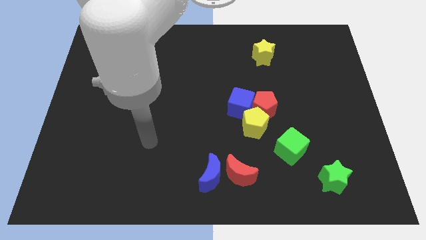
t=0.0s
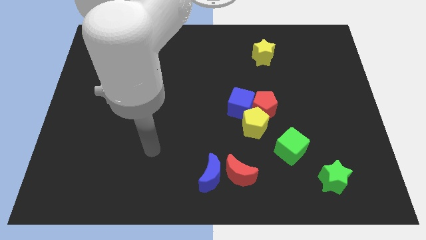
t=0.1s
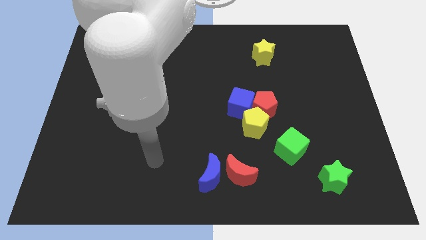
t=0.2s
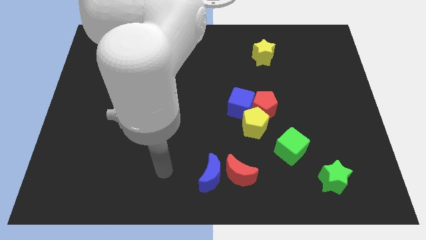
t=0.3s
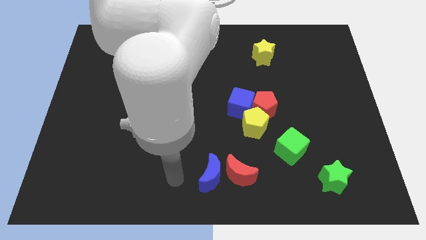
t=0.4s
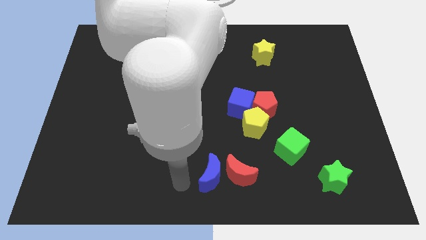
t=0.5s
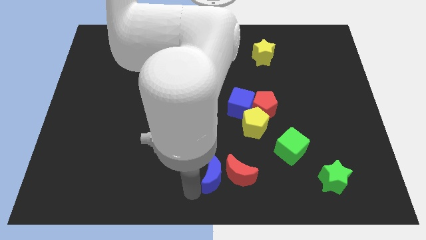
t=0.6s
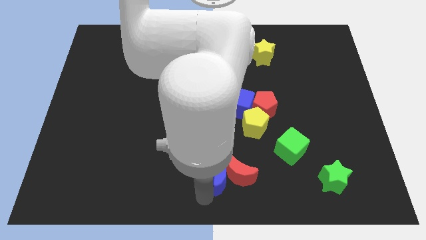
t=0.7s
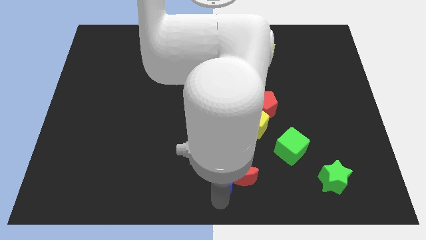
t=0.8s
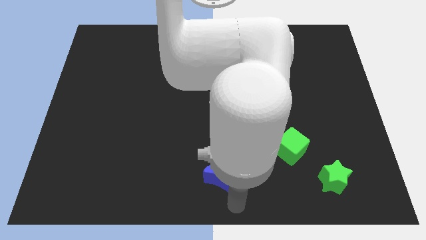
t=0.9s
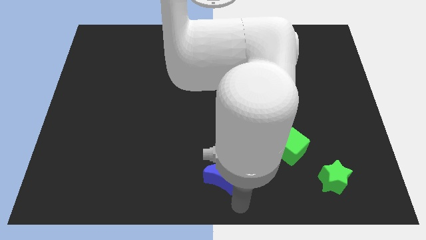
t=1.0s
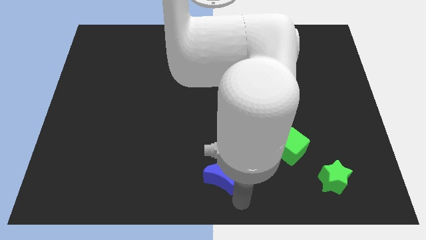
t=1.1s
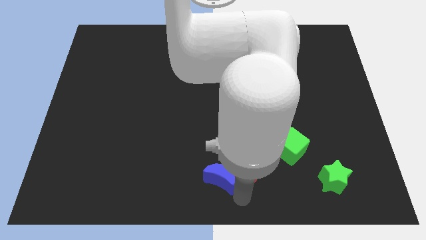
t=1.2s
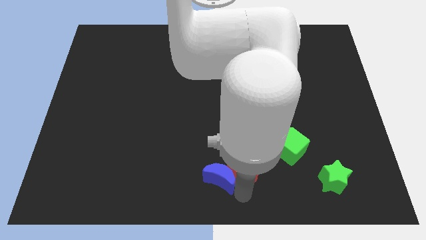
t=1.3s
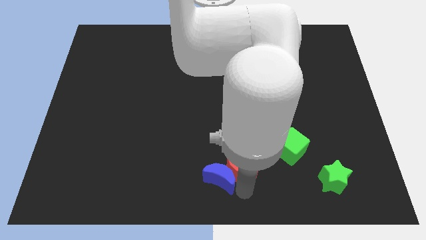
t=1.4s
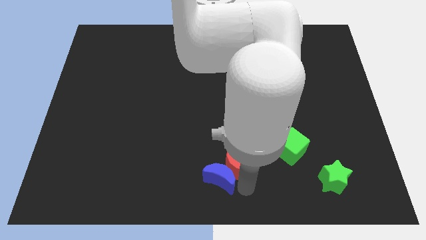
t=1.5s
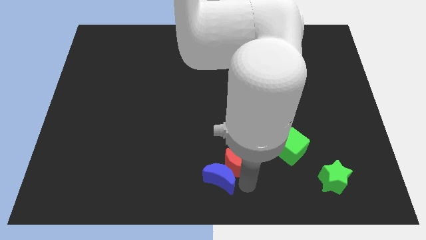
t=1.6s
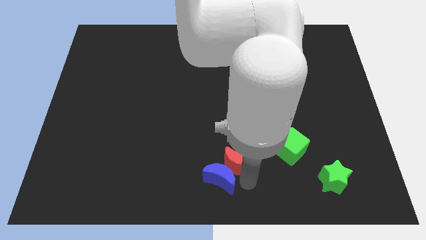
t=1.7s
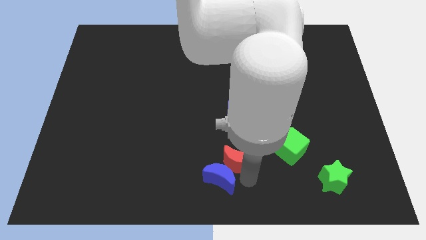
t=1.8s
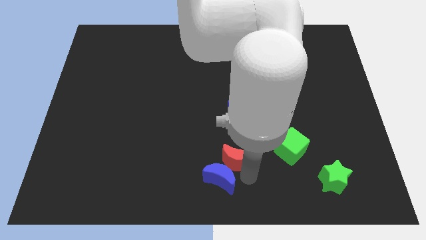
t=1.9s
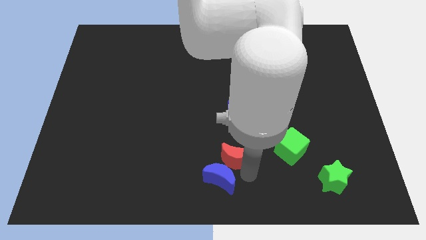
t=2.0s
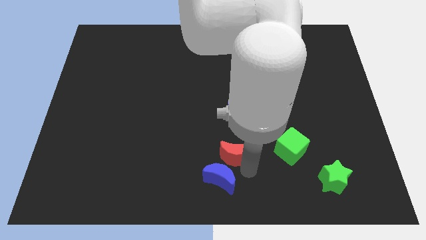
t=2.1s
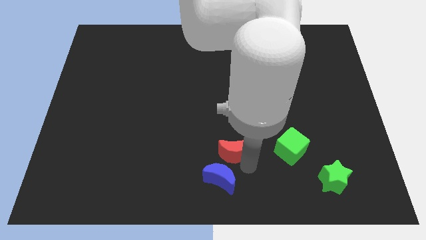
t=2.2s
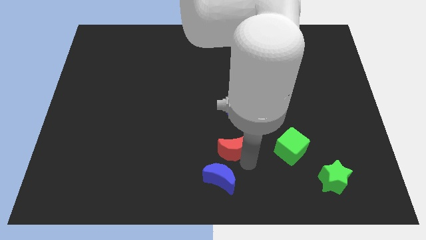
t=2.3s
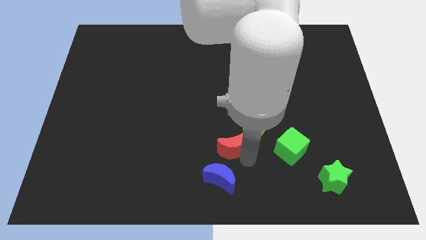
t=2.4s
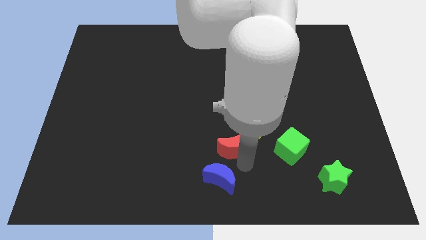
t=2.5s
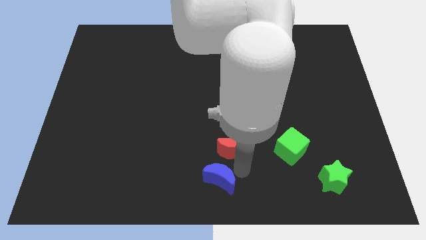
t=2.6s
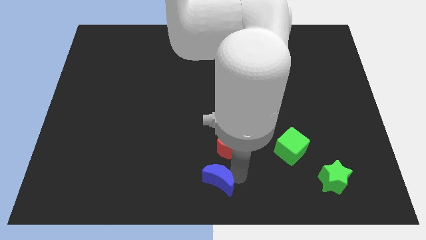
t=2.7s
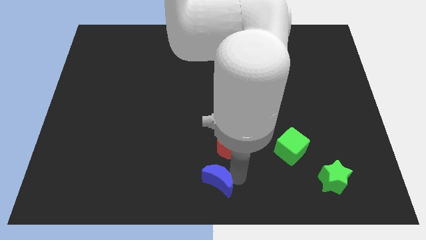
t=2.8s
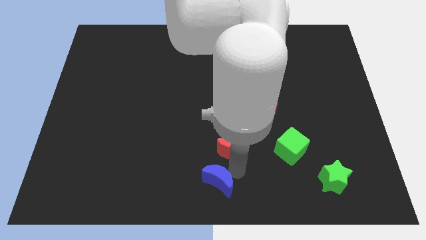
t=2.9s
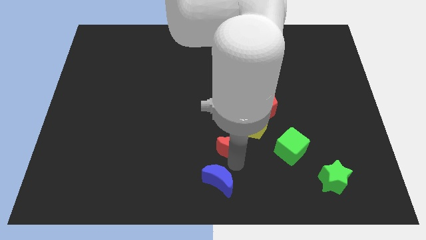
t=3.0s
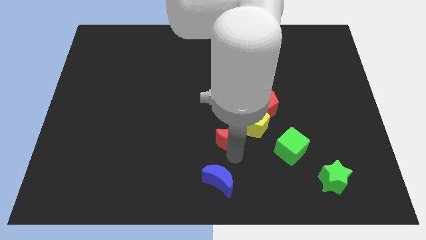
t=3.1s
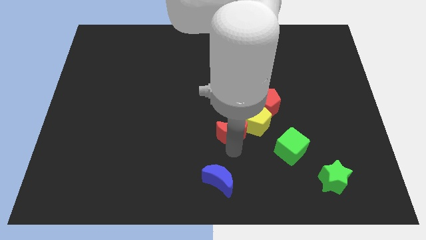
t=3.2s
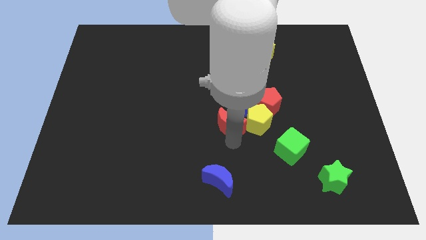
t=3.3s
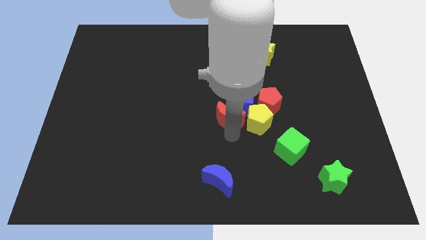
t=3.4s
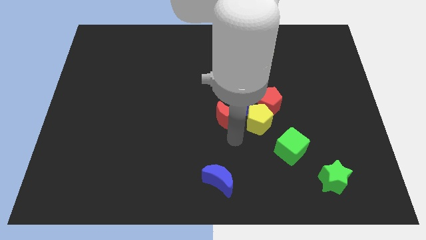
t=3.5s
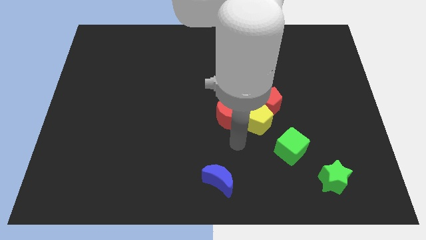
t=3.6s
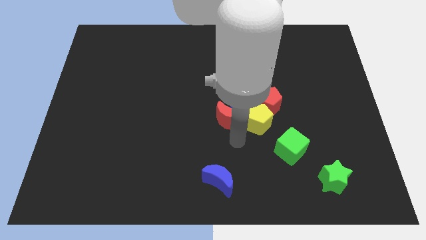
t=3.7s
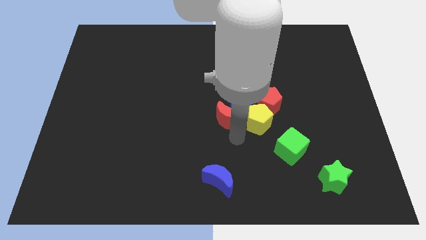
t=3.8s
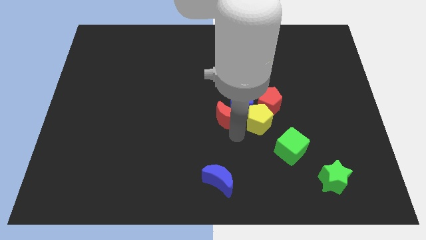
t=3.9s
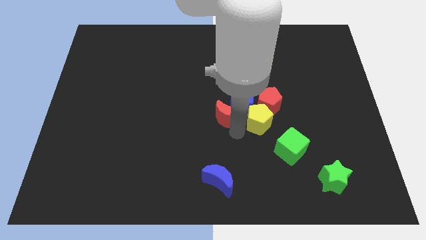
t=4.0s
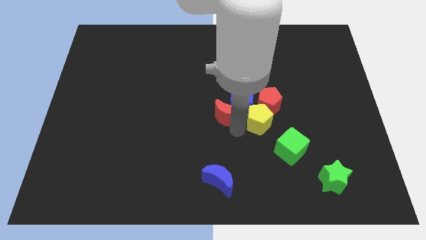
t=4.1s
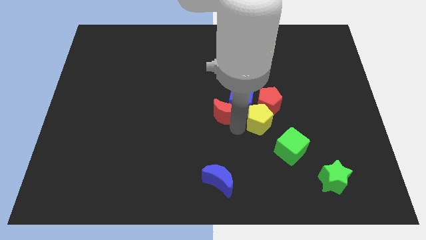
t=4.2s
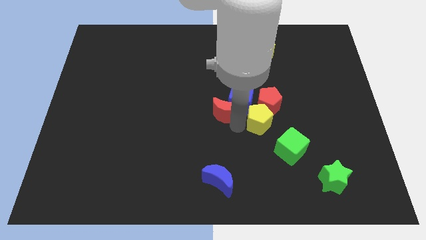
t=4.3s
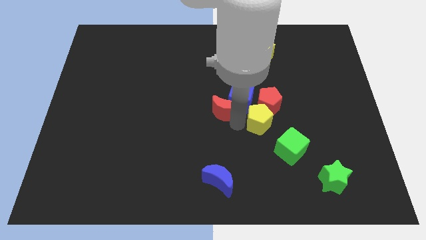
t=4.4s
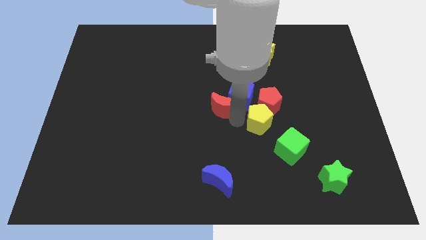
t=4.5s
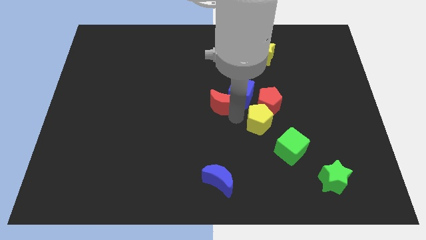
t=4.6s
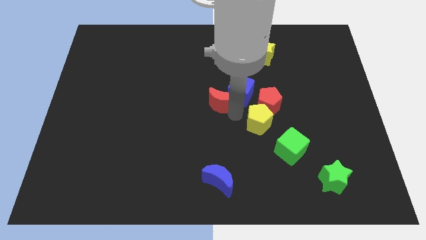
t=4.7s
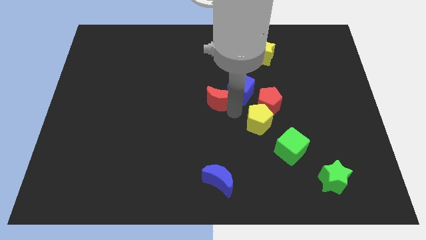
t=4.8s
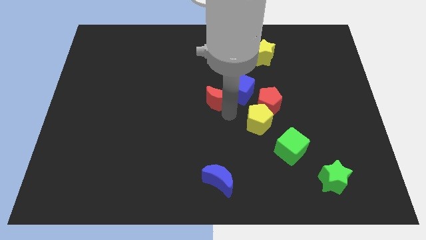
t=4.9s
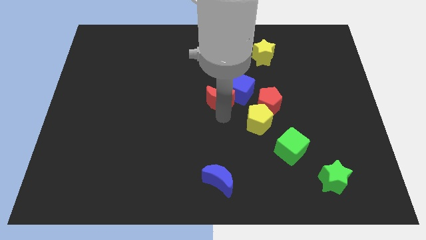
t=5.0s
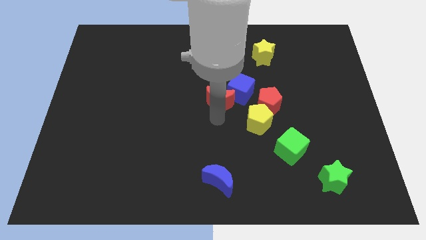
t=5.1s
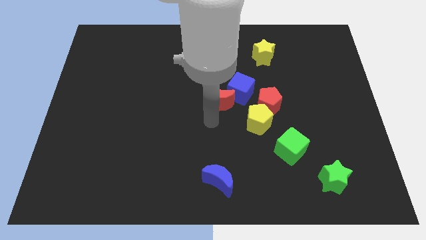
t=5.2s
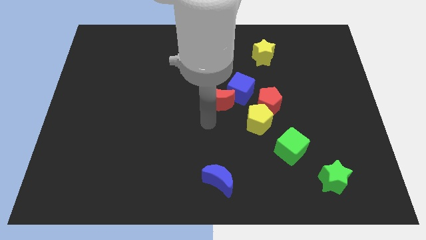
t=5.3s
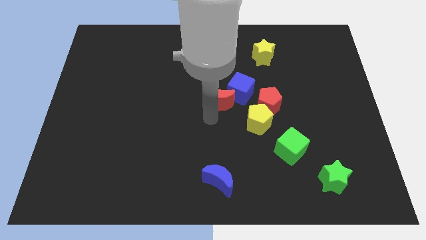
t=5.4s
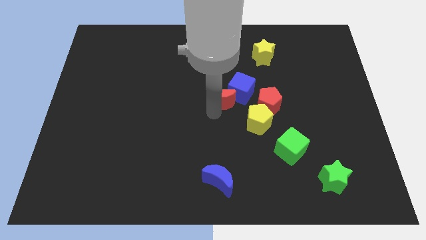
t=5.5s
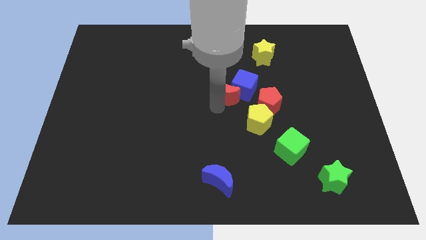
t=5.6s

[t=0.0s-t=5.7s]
push the red moon upwards

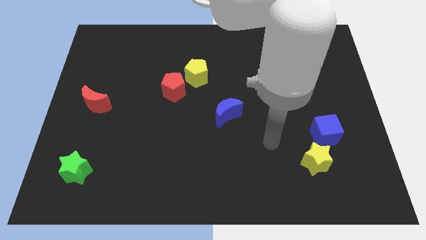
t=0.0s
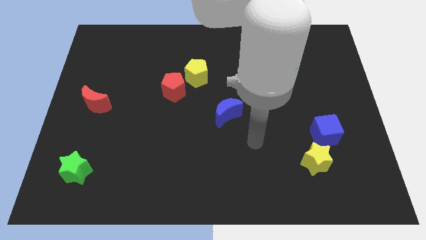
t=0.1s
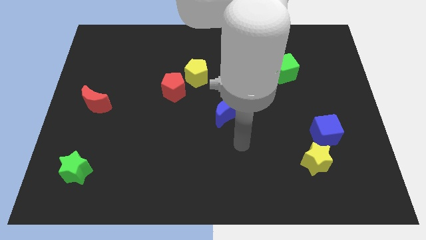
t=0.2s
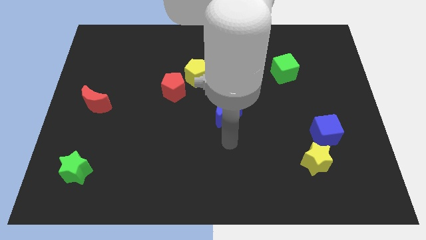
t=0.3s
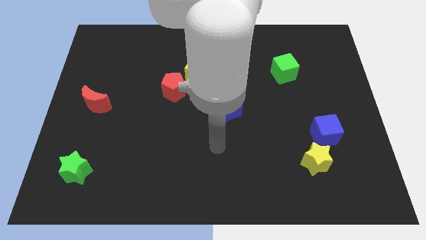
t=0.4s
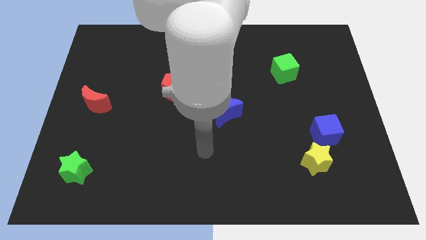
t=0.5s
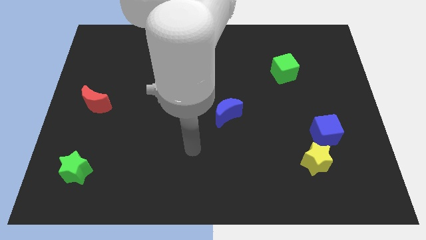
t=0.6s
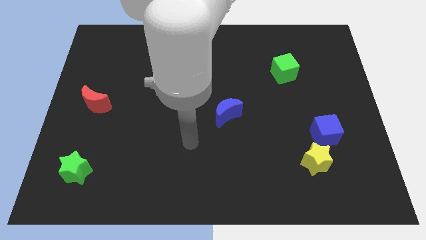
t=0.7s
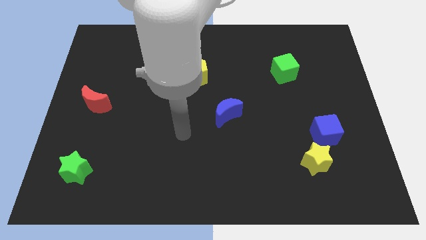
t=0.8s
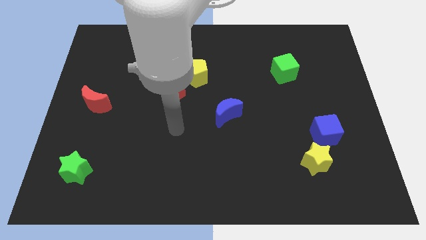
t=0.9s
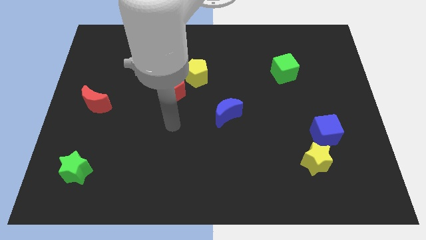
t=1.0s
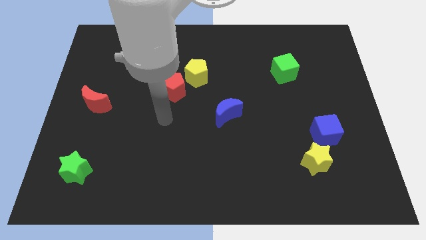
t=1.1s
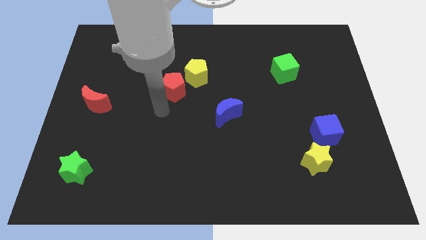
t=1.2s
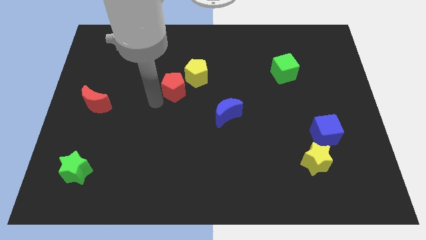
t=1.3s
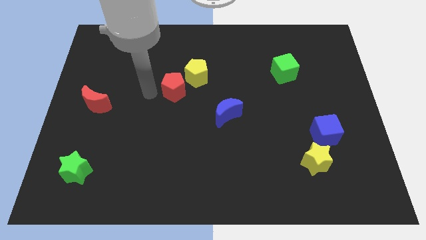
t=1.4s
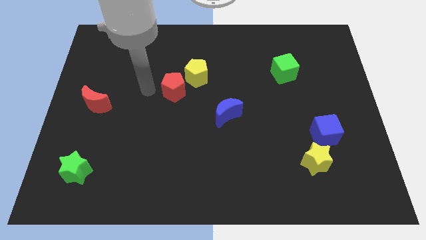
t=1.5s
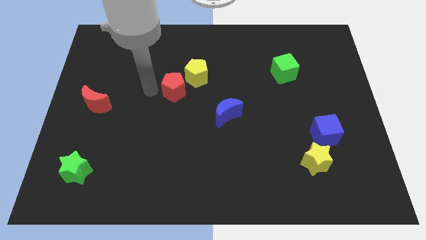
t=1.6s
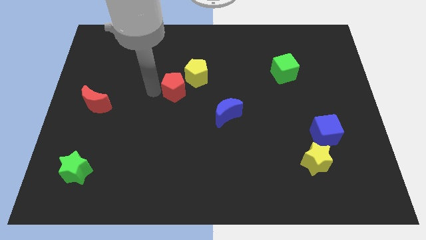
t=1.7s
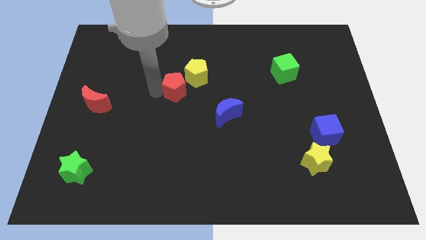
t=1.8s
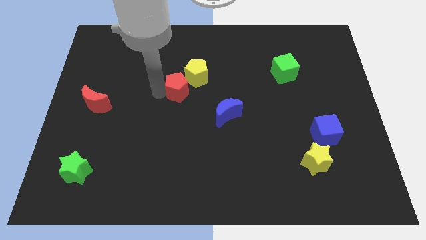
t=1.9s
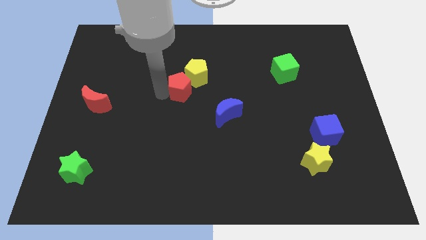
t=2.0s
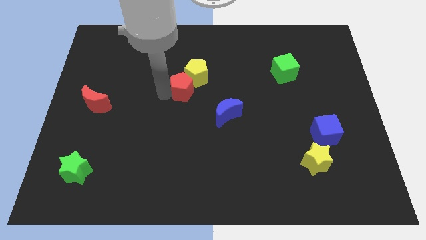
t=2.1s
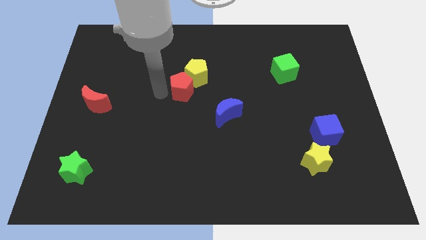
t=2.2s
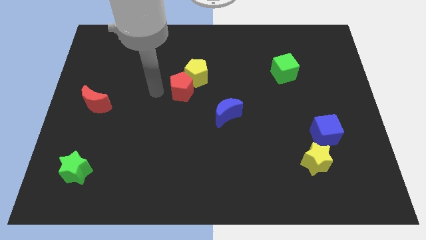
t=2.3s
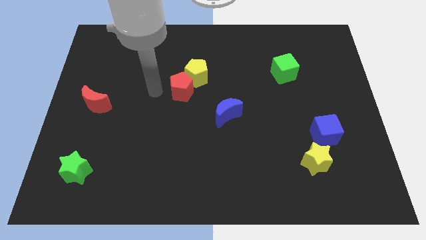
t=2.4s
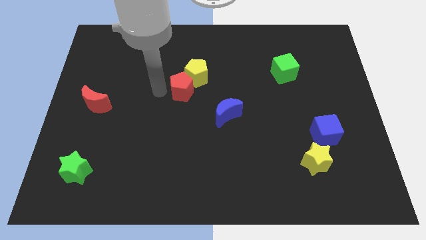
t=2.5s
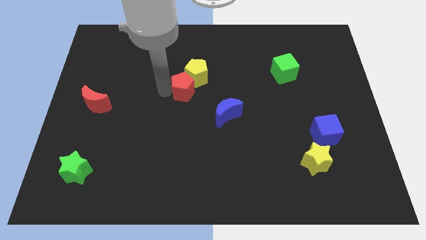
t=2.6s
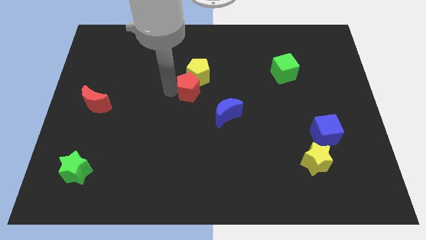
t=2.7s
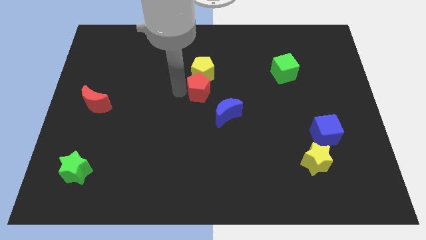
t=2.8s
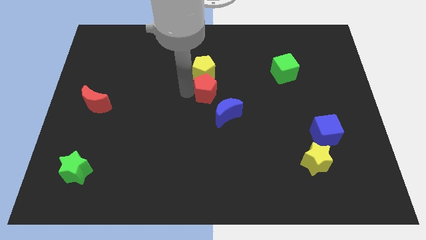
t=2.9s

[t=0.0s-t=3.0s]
slightly push the red pentagon right
